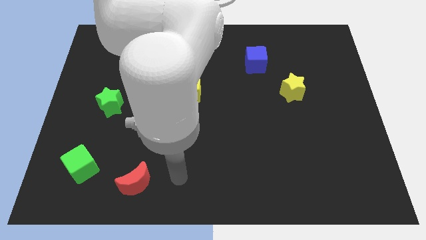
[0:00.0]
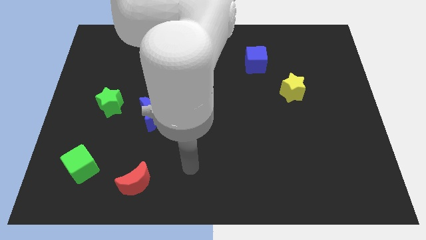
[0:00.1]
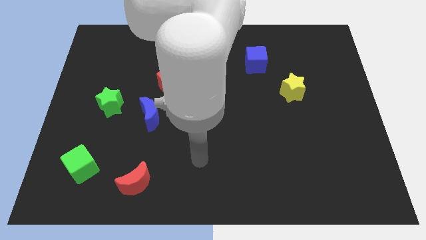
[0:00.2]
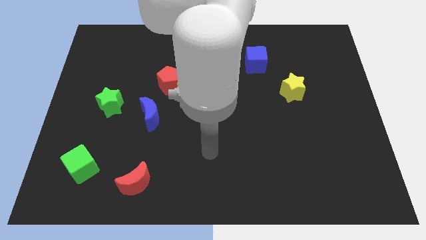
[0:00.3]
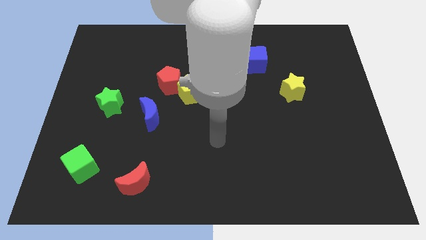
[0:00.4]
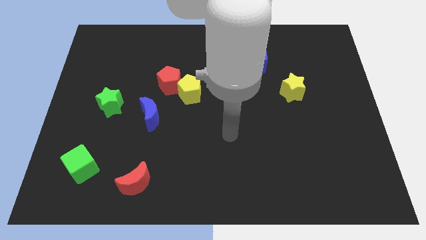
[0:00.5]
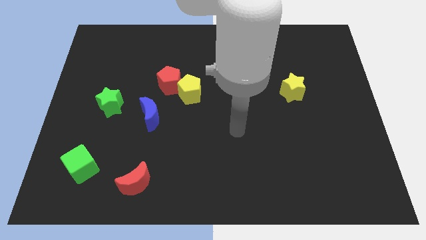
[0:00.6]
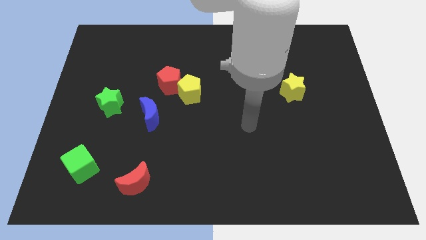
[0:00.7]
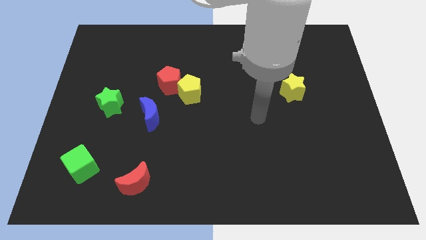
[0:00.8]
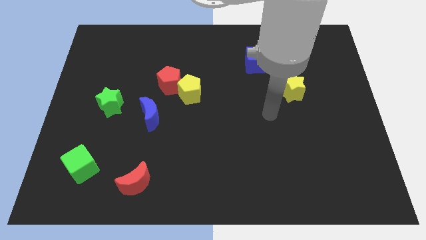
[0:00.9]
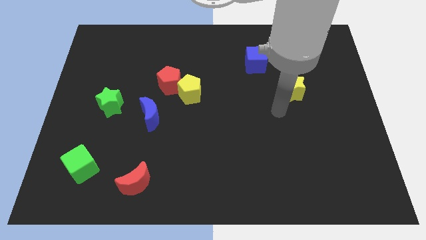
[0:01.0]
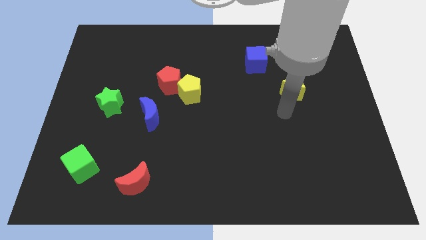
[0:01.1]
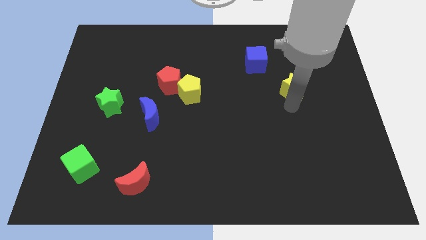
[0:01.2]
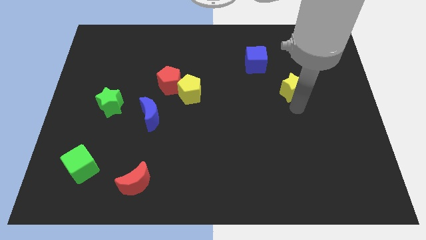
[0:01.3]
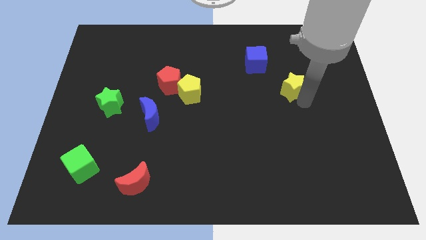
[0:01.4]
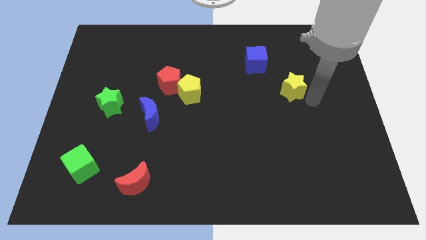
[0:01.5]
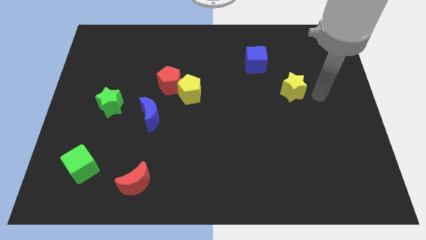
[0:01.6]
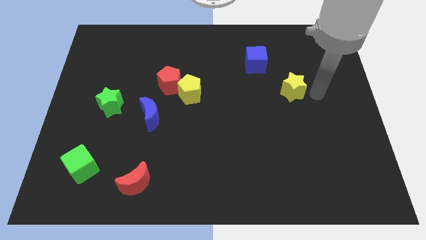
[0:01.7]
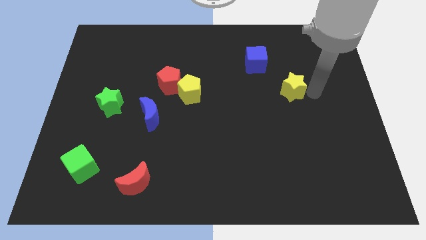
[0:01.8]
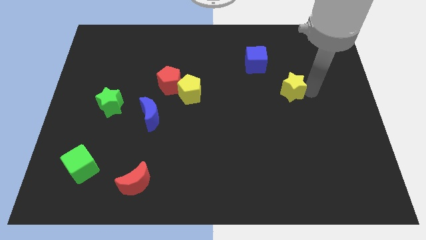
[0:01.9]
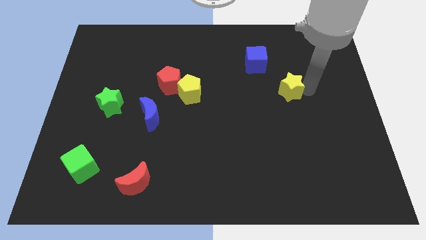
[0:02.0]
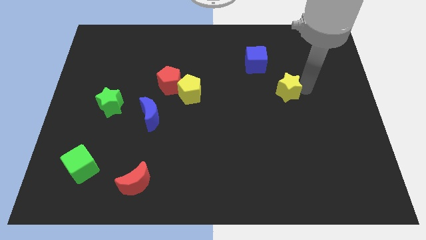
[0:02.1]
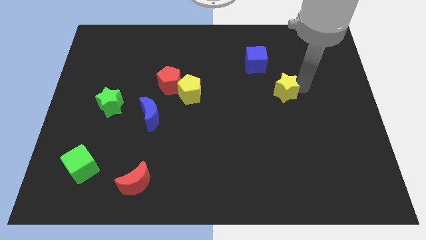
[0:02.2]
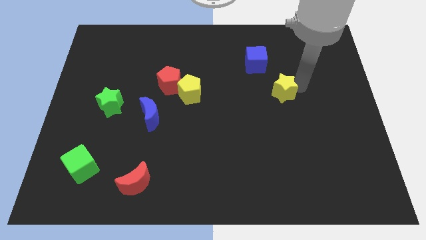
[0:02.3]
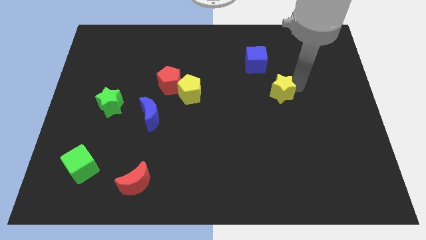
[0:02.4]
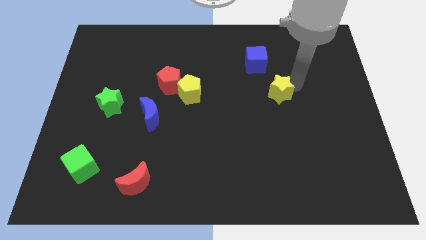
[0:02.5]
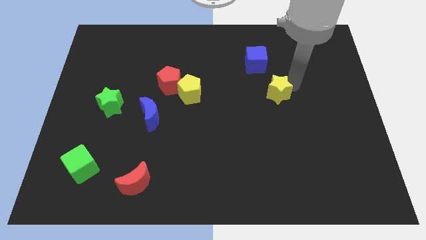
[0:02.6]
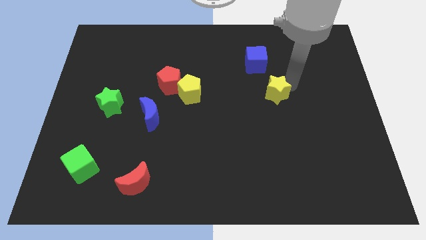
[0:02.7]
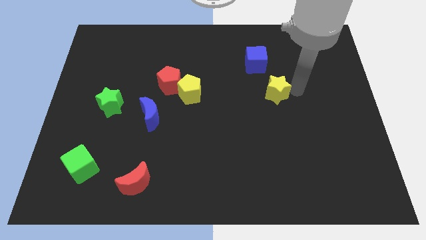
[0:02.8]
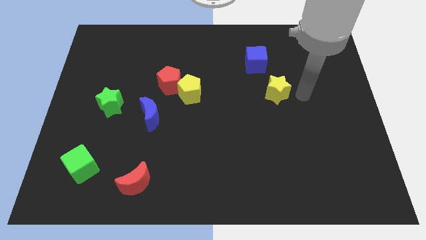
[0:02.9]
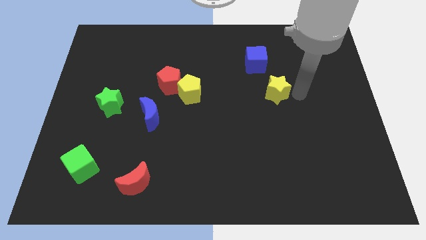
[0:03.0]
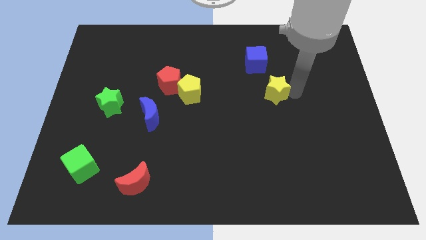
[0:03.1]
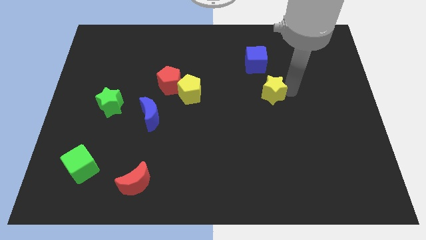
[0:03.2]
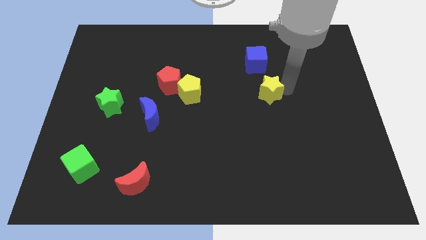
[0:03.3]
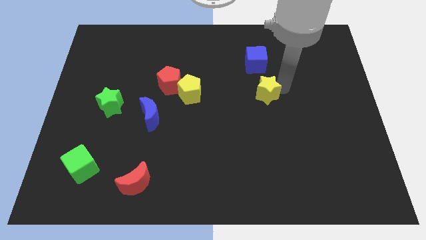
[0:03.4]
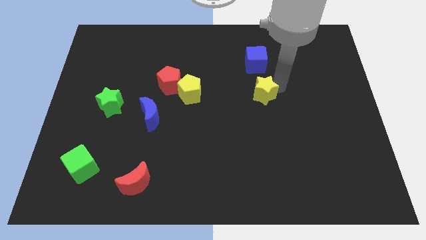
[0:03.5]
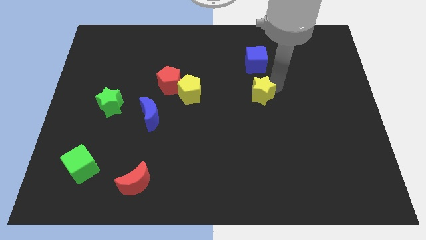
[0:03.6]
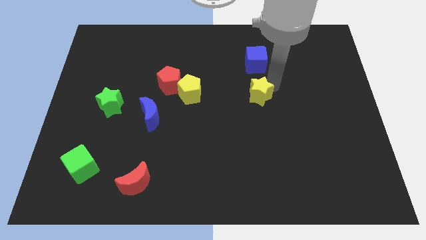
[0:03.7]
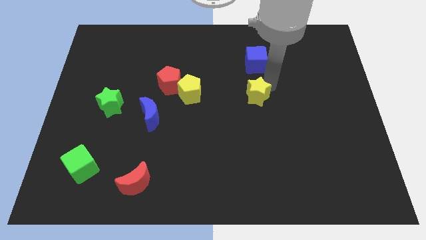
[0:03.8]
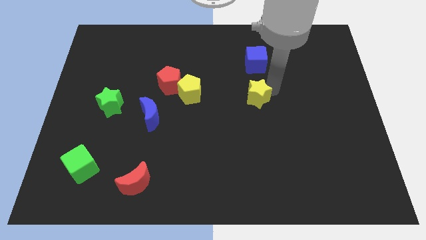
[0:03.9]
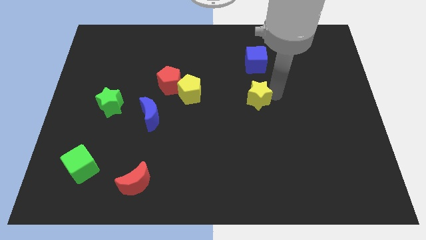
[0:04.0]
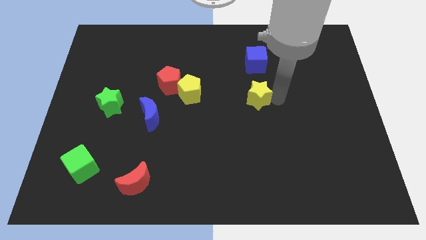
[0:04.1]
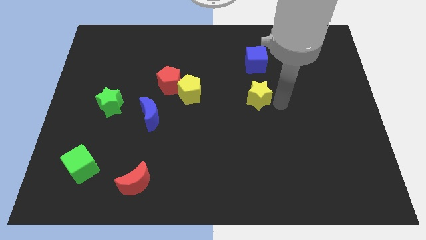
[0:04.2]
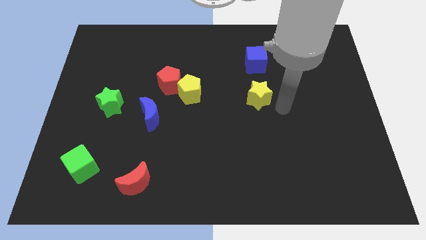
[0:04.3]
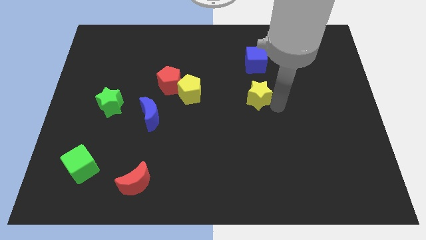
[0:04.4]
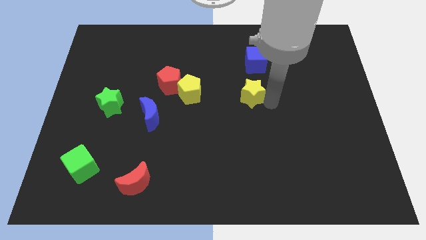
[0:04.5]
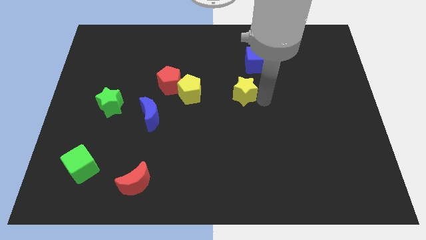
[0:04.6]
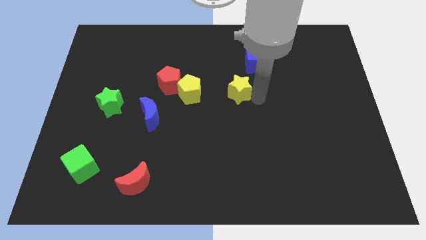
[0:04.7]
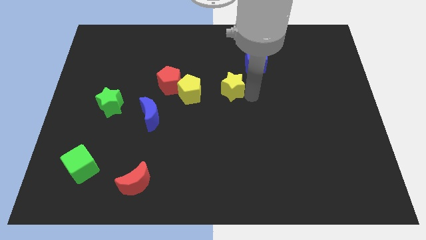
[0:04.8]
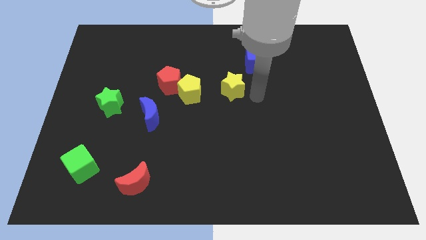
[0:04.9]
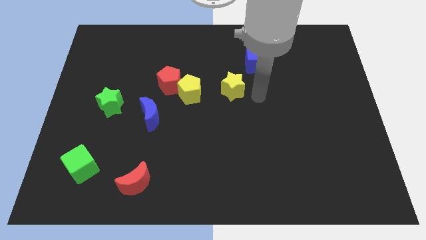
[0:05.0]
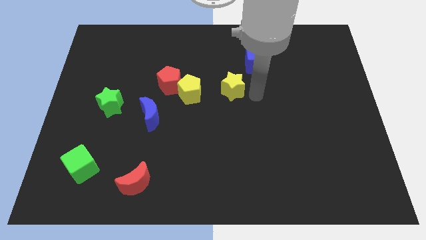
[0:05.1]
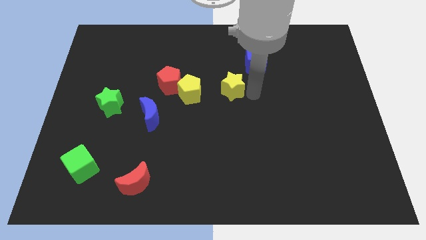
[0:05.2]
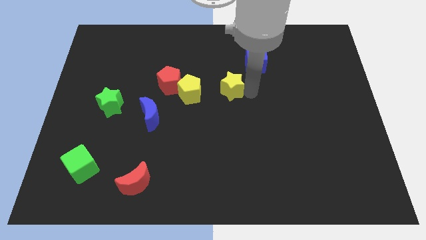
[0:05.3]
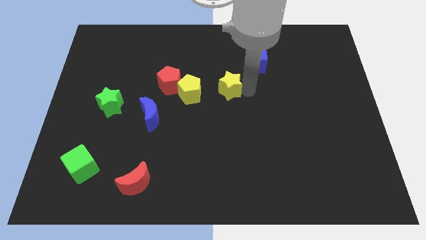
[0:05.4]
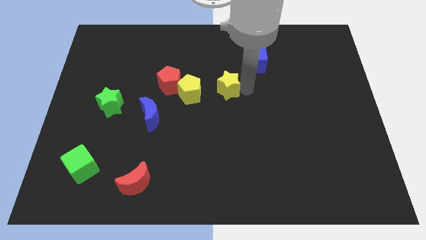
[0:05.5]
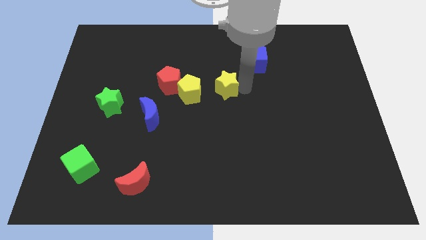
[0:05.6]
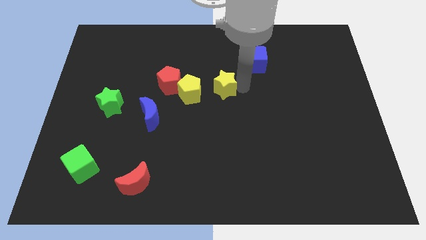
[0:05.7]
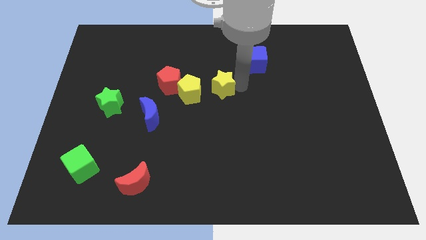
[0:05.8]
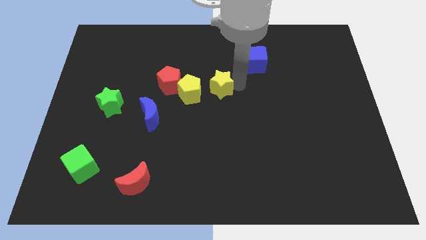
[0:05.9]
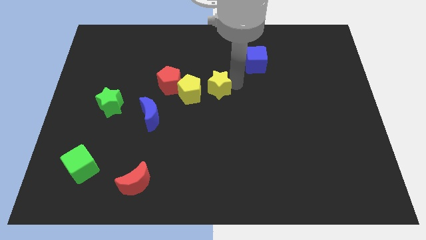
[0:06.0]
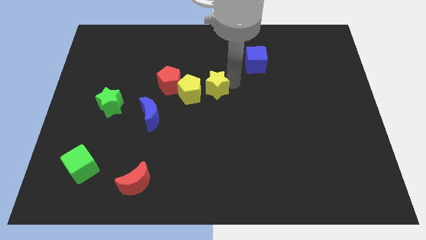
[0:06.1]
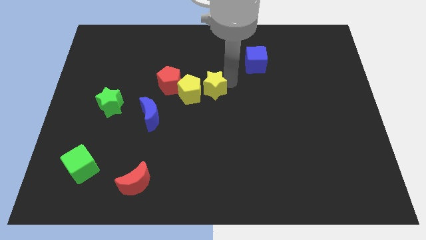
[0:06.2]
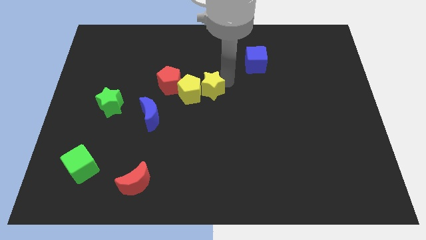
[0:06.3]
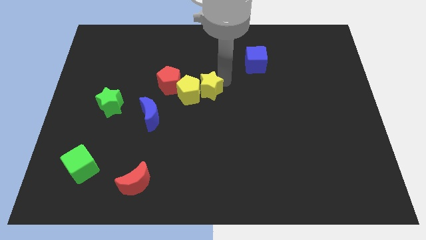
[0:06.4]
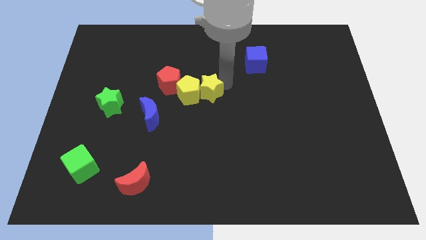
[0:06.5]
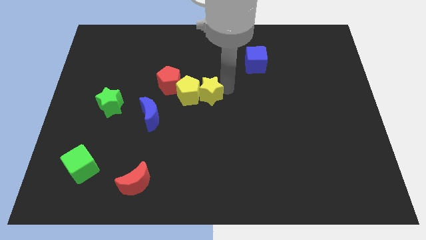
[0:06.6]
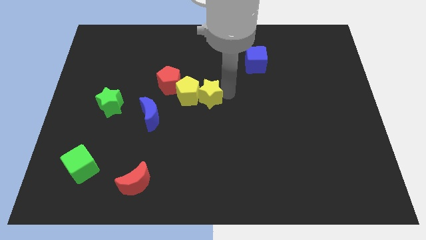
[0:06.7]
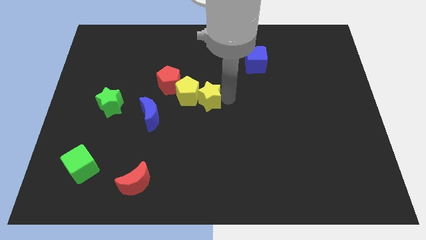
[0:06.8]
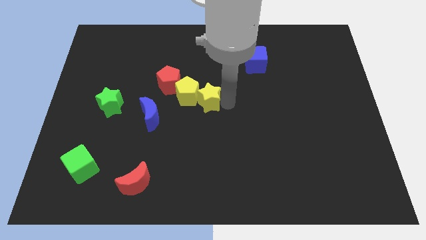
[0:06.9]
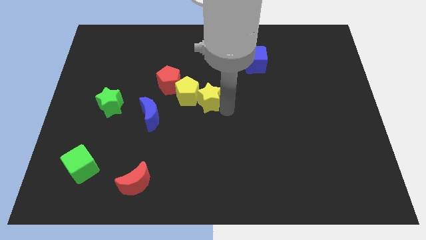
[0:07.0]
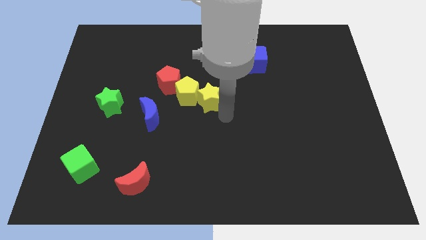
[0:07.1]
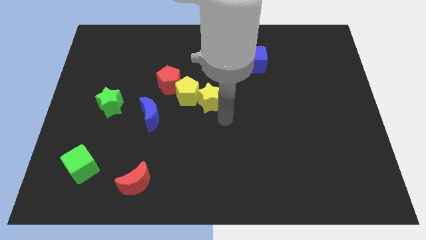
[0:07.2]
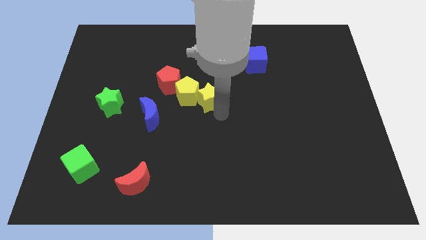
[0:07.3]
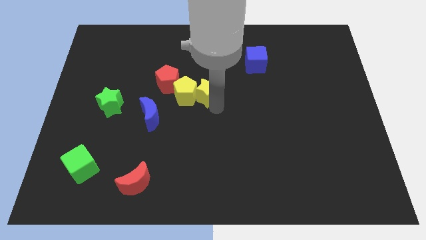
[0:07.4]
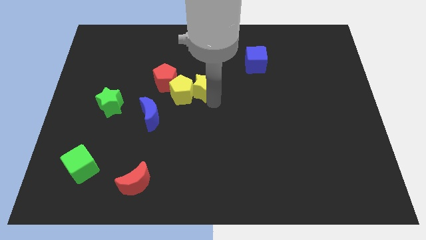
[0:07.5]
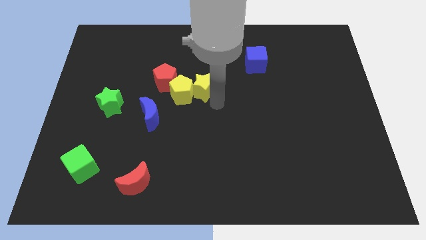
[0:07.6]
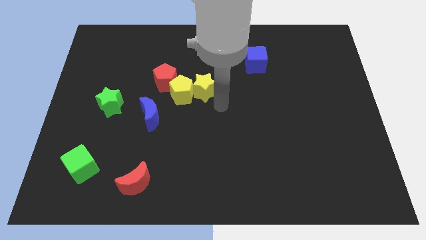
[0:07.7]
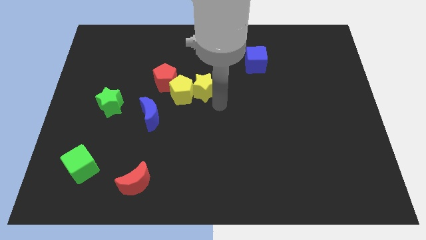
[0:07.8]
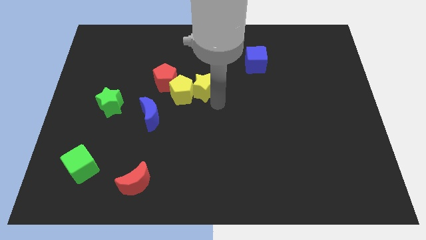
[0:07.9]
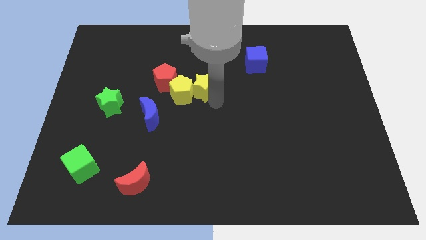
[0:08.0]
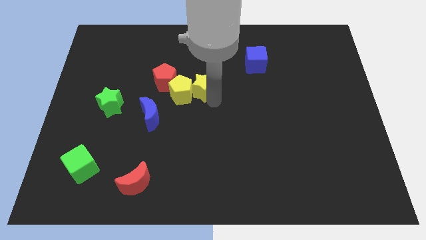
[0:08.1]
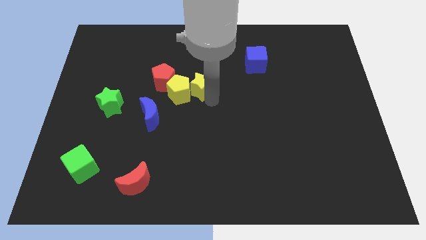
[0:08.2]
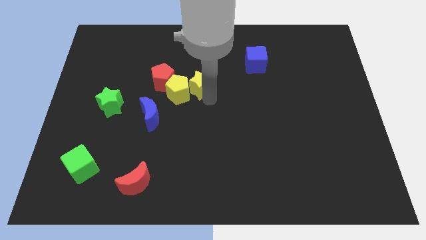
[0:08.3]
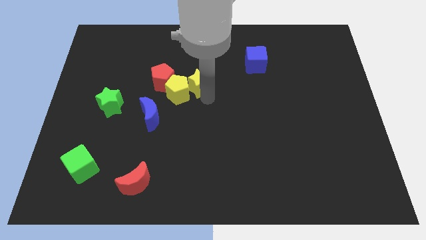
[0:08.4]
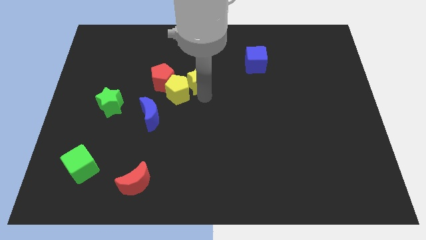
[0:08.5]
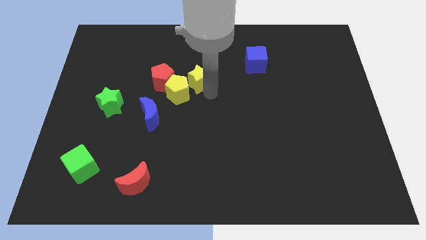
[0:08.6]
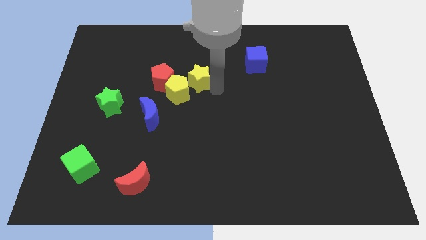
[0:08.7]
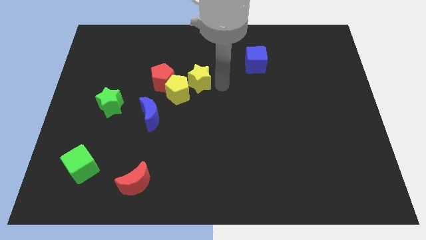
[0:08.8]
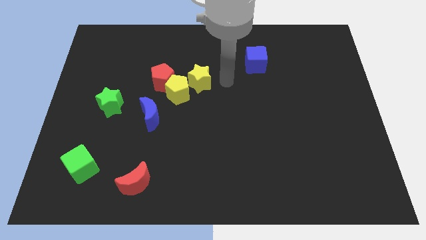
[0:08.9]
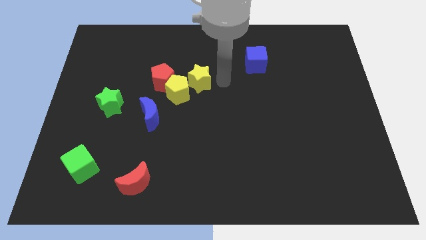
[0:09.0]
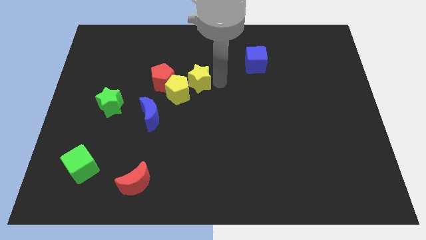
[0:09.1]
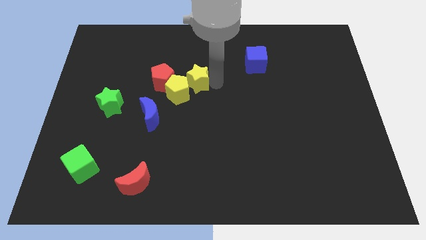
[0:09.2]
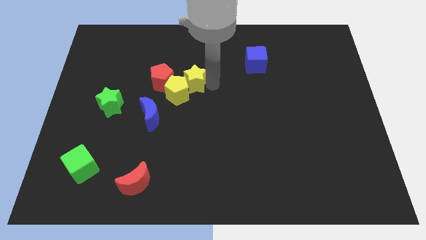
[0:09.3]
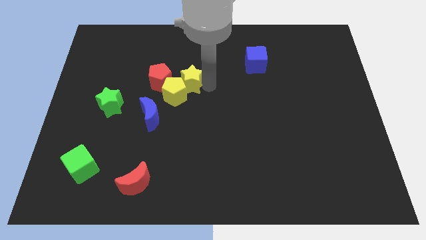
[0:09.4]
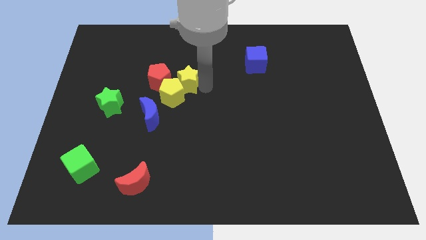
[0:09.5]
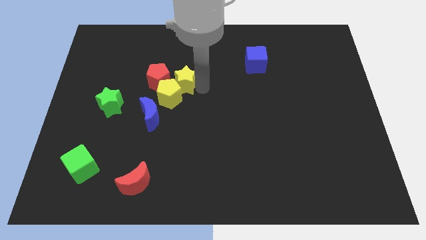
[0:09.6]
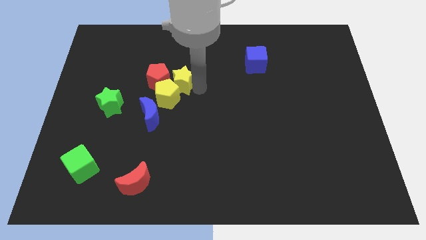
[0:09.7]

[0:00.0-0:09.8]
slide the yellow star next to the red pentagon
